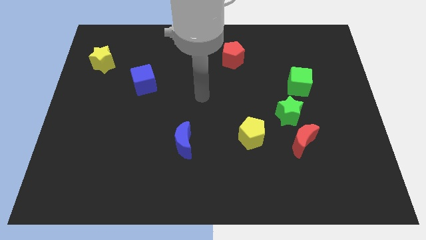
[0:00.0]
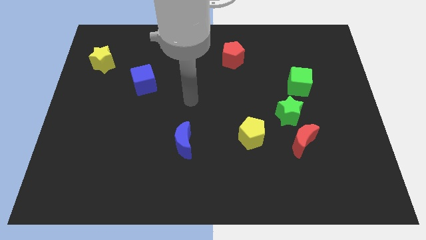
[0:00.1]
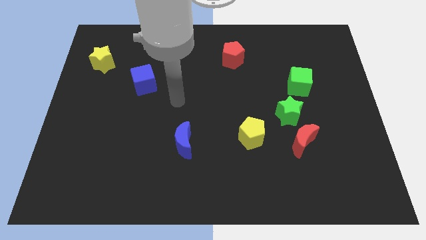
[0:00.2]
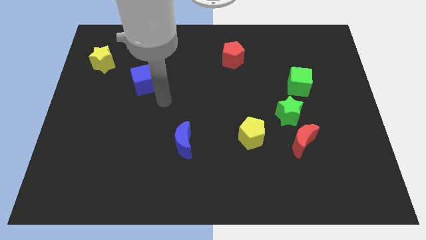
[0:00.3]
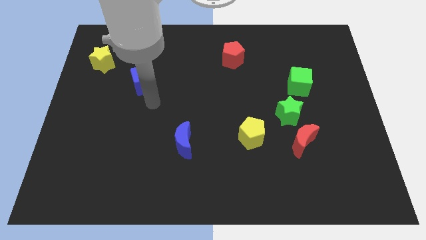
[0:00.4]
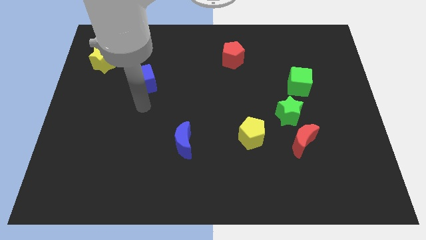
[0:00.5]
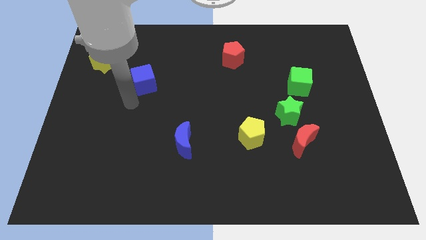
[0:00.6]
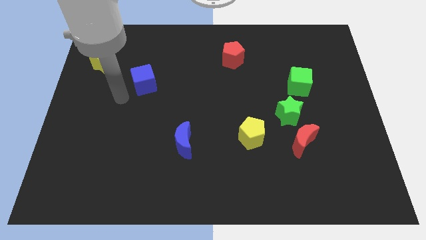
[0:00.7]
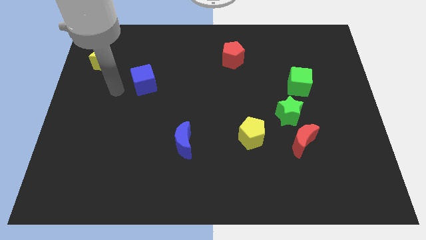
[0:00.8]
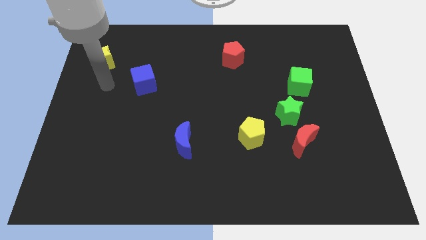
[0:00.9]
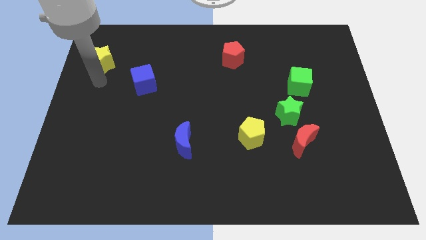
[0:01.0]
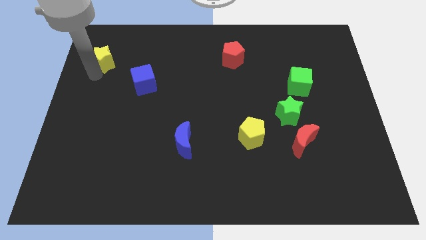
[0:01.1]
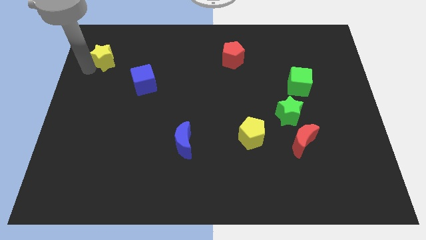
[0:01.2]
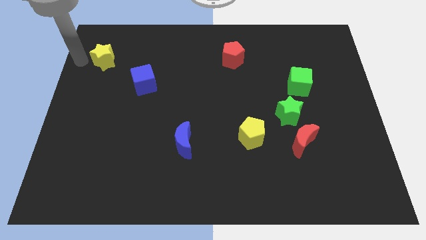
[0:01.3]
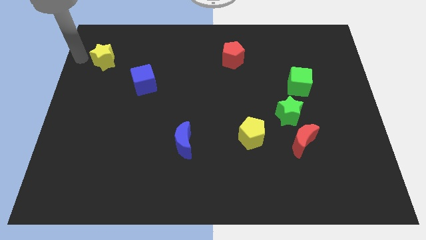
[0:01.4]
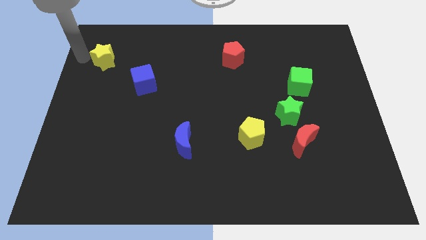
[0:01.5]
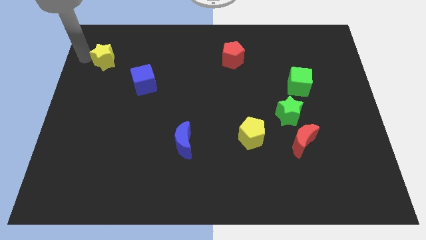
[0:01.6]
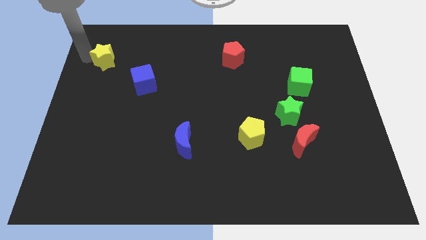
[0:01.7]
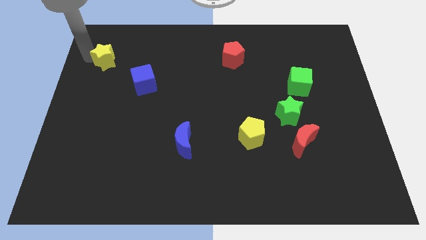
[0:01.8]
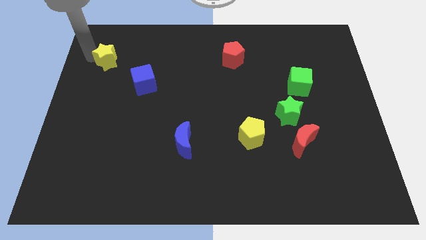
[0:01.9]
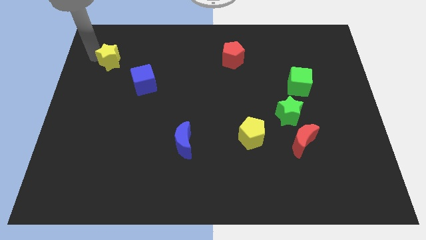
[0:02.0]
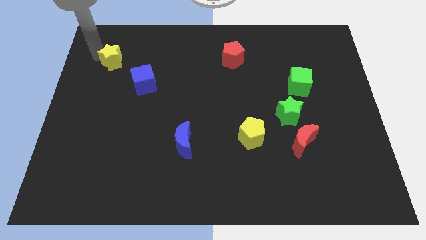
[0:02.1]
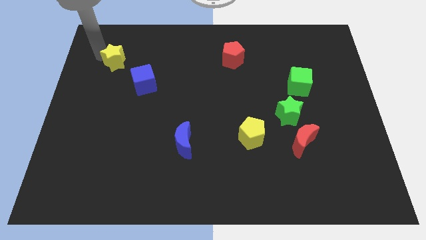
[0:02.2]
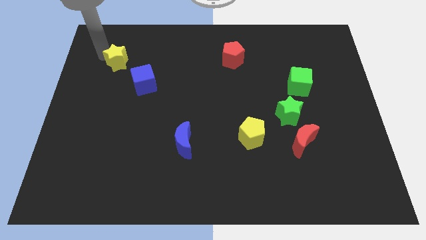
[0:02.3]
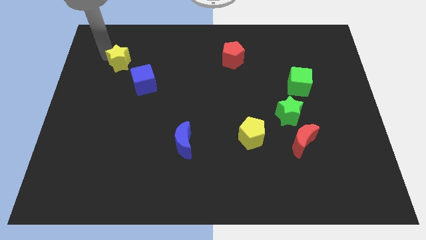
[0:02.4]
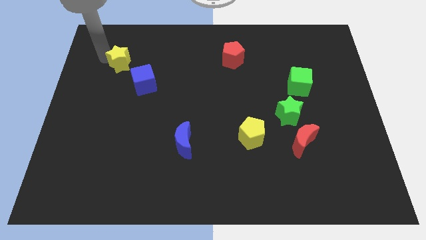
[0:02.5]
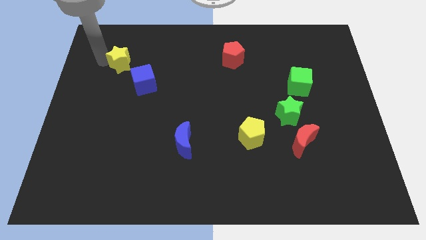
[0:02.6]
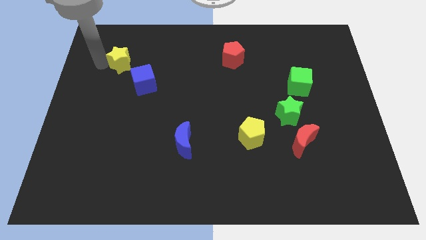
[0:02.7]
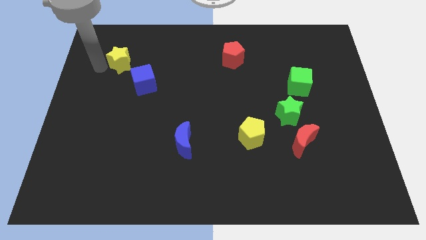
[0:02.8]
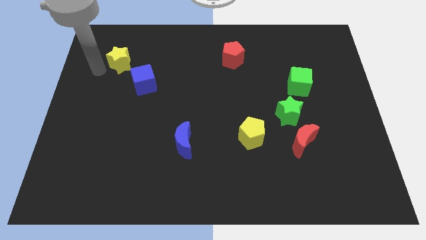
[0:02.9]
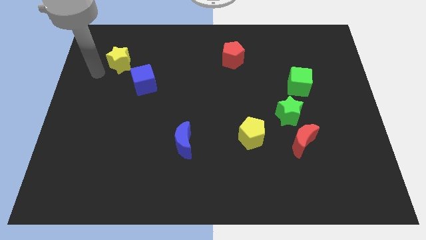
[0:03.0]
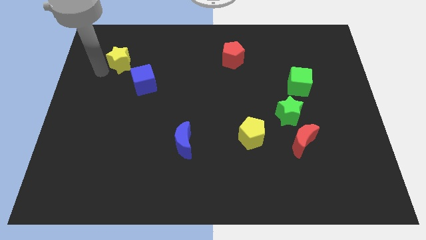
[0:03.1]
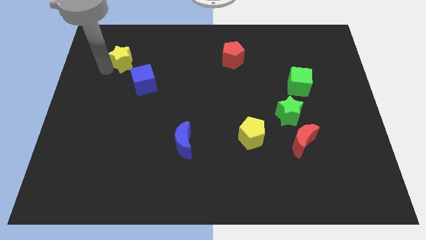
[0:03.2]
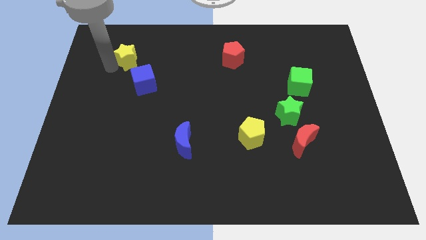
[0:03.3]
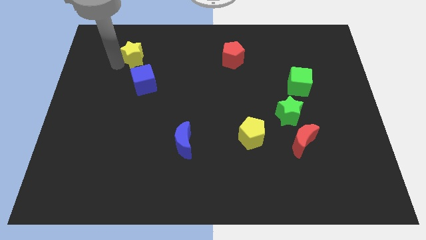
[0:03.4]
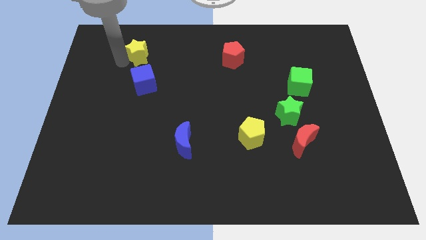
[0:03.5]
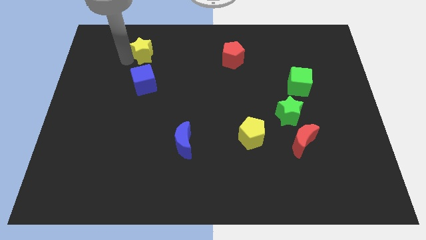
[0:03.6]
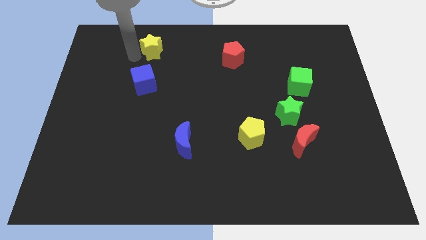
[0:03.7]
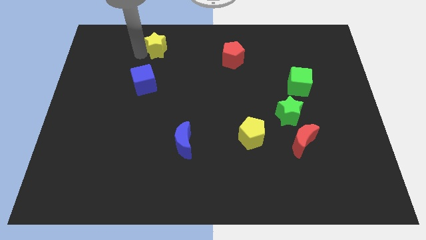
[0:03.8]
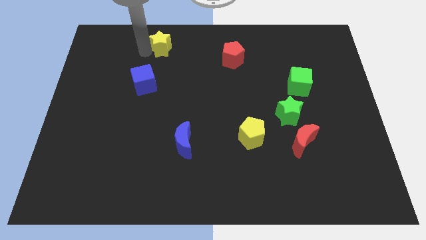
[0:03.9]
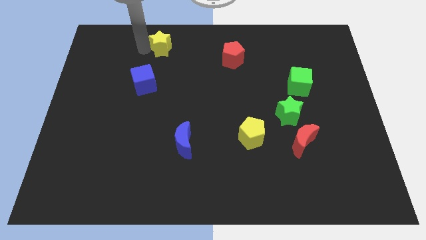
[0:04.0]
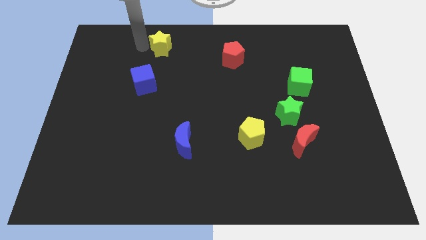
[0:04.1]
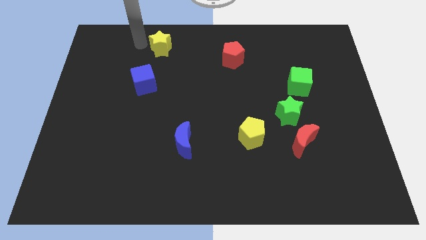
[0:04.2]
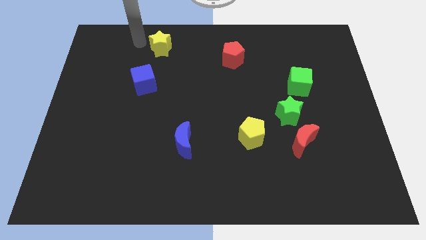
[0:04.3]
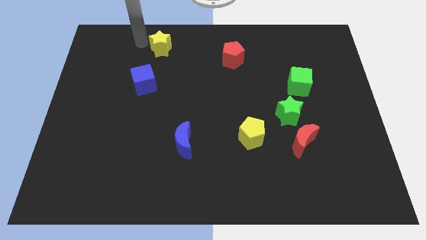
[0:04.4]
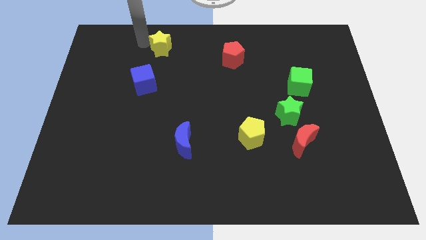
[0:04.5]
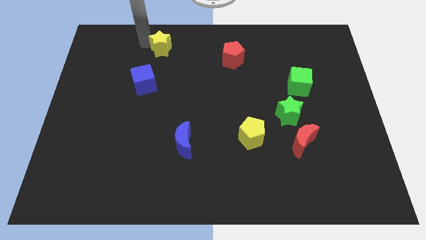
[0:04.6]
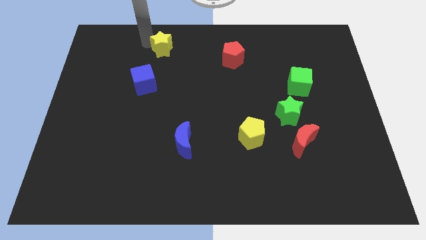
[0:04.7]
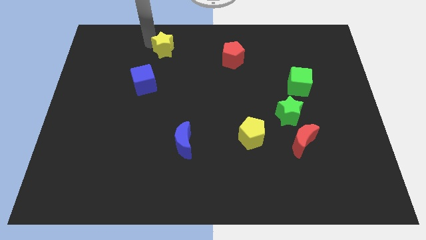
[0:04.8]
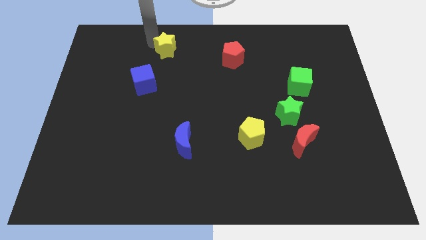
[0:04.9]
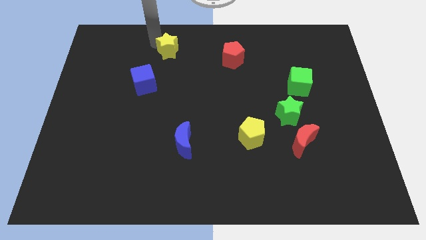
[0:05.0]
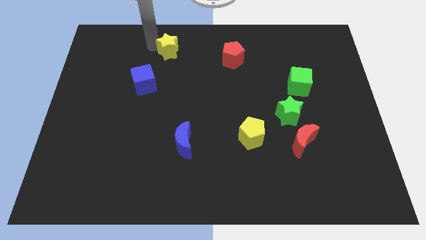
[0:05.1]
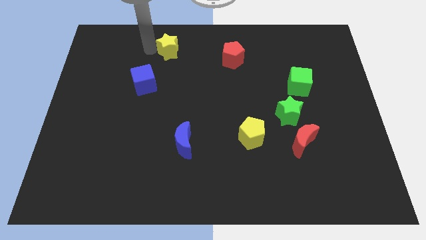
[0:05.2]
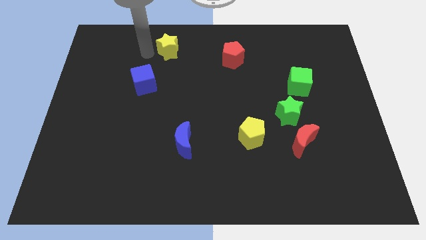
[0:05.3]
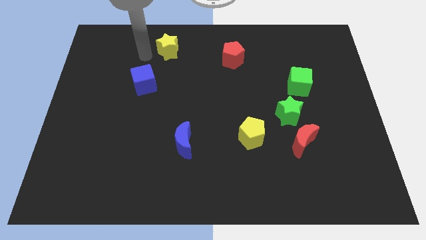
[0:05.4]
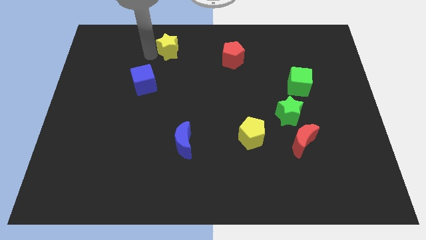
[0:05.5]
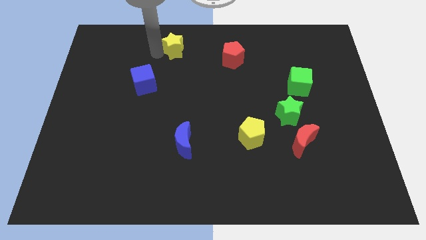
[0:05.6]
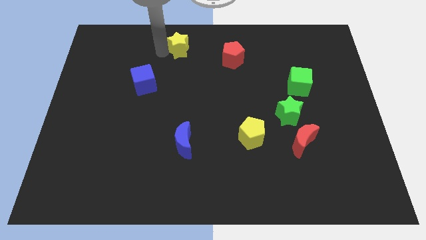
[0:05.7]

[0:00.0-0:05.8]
push the yellow star to the towards your base

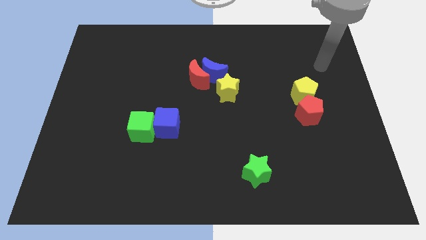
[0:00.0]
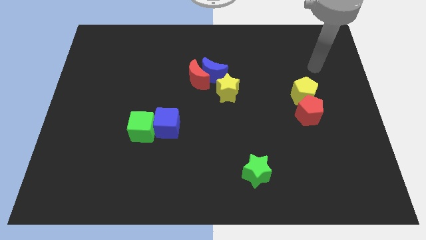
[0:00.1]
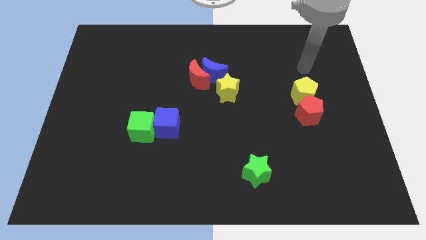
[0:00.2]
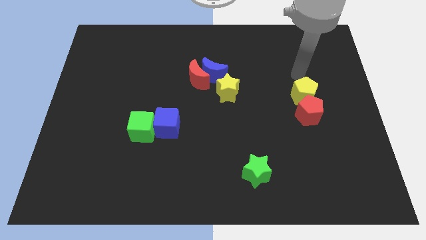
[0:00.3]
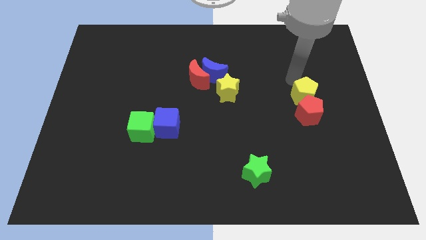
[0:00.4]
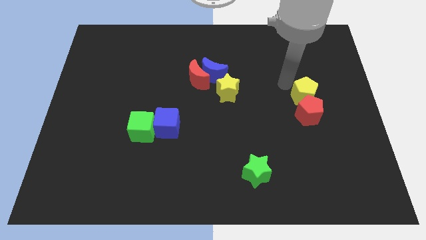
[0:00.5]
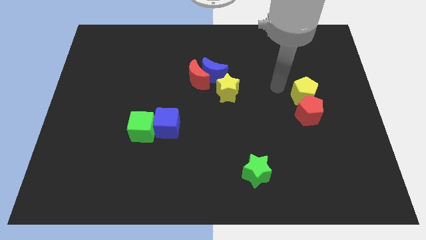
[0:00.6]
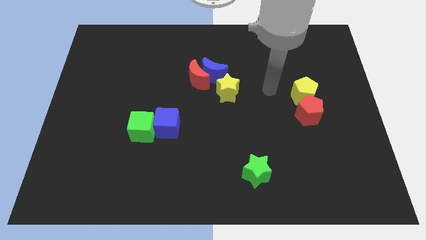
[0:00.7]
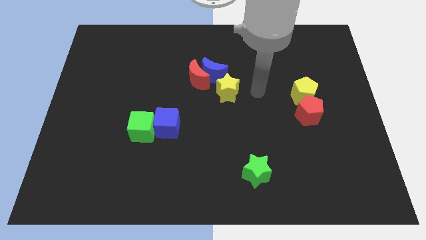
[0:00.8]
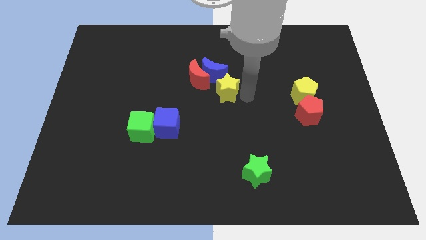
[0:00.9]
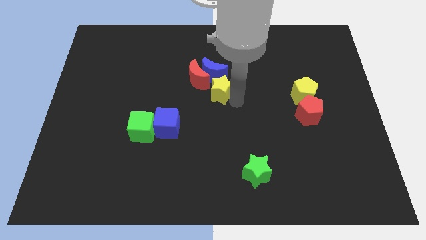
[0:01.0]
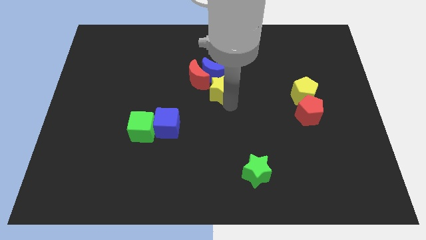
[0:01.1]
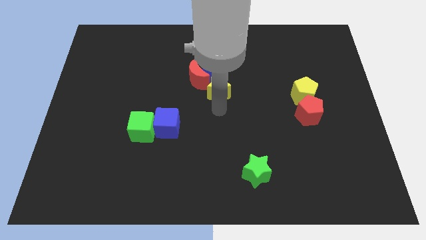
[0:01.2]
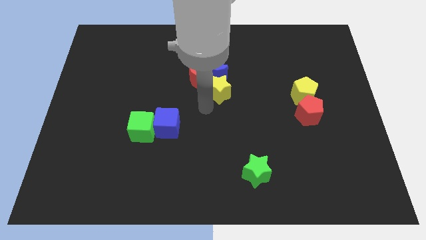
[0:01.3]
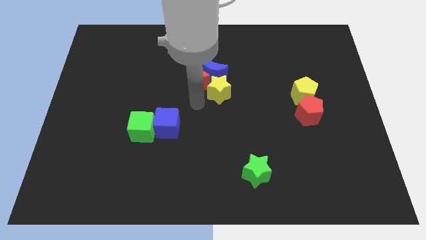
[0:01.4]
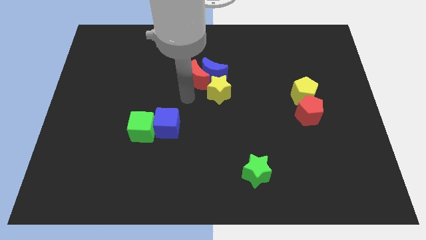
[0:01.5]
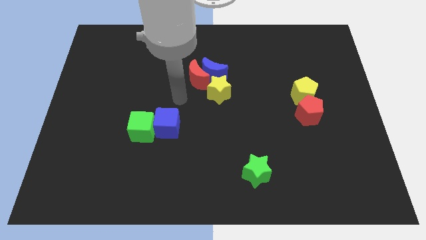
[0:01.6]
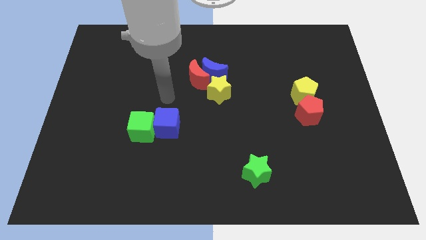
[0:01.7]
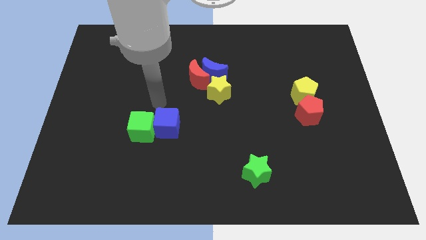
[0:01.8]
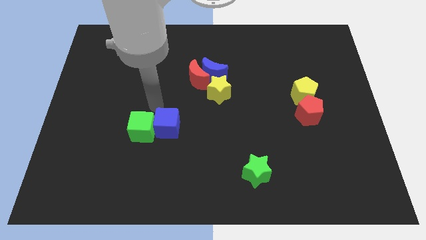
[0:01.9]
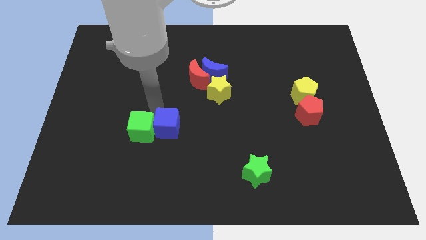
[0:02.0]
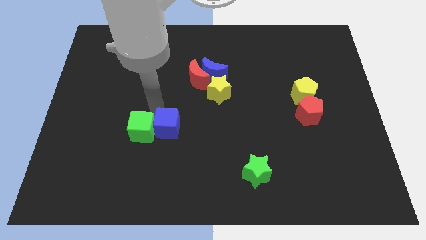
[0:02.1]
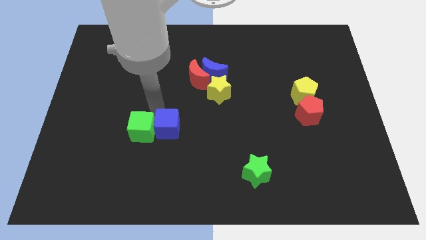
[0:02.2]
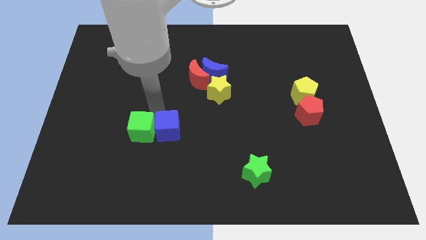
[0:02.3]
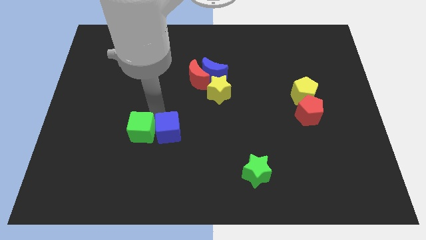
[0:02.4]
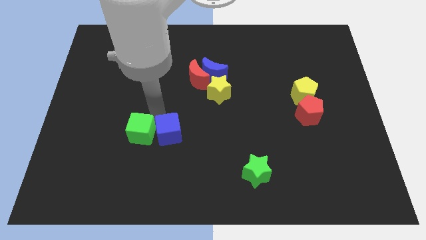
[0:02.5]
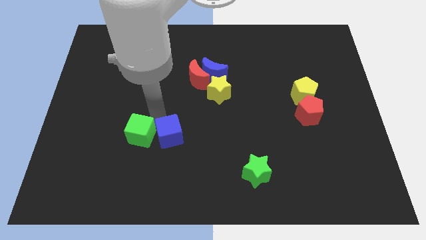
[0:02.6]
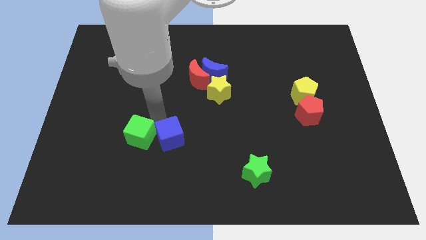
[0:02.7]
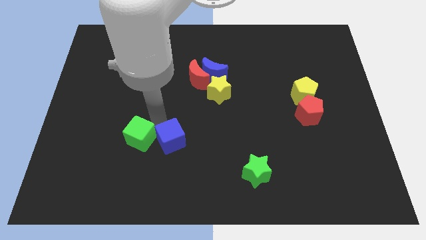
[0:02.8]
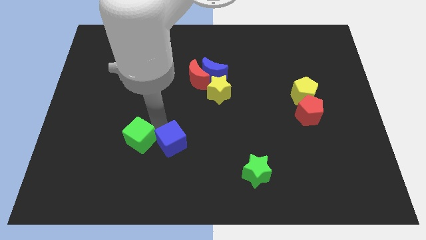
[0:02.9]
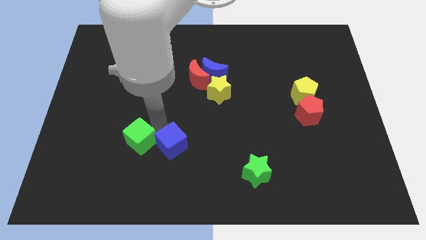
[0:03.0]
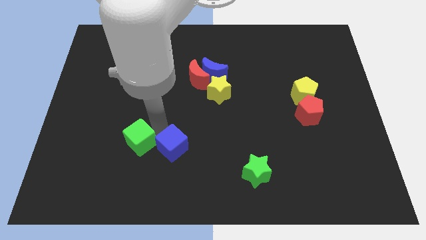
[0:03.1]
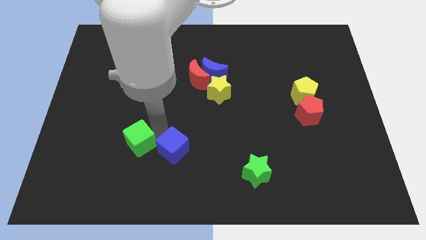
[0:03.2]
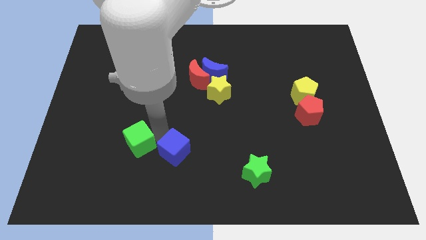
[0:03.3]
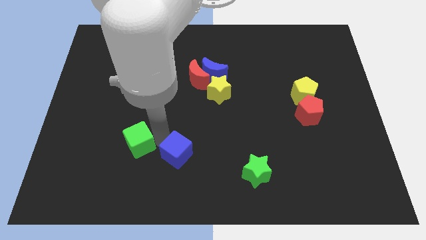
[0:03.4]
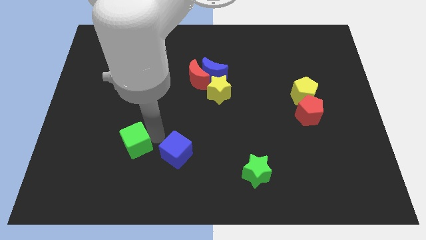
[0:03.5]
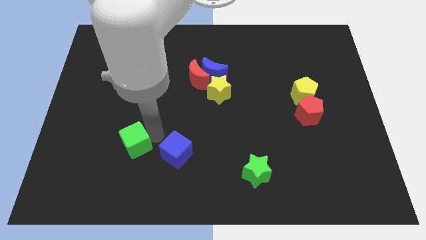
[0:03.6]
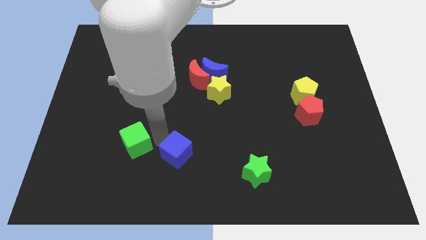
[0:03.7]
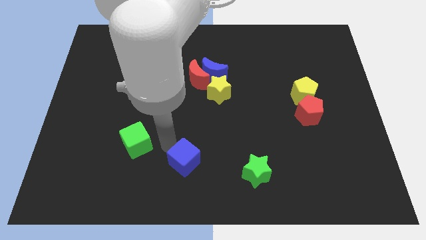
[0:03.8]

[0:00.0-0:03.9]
put the blue cube to the bottom
